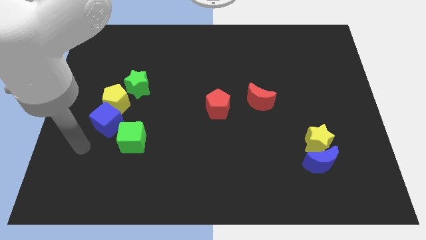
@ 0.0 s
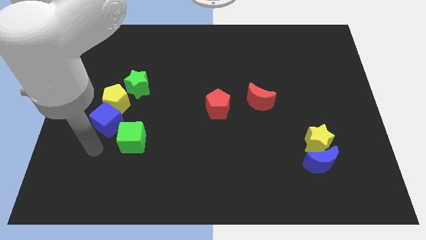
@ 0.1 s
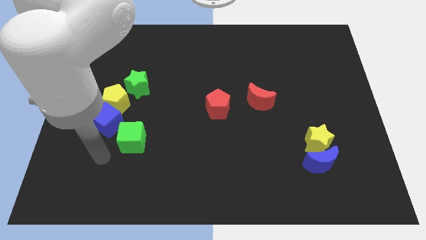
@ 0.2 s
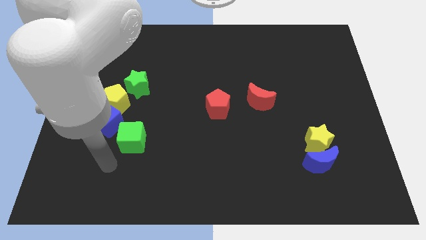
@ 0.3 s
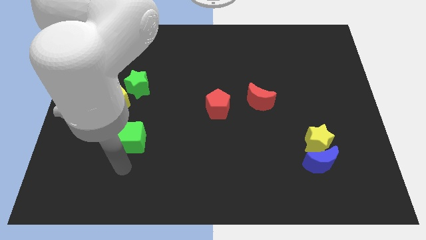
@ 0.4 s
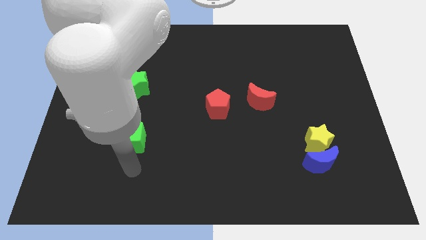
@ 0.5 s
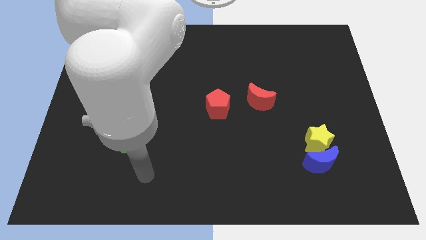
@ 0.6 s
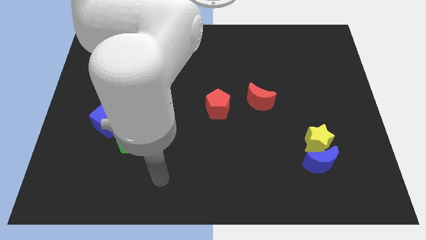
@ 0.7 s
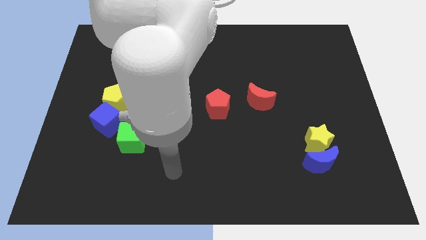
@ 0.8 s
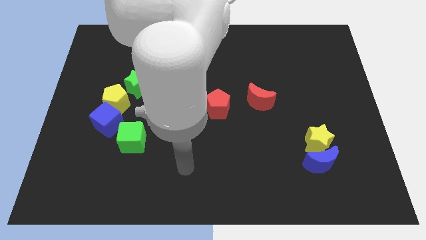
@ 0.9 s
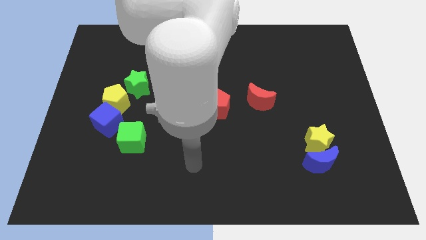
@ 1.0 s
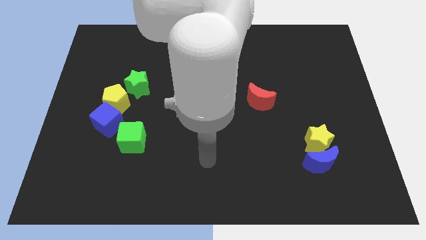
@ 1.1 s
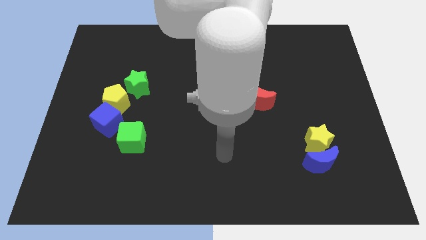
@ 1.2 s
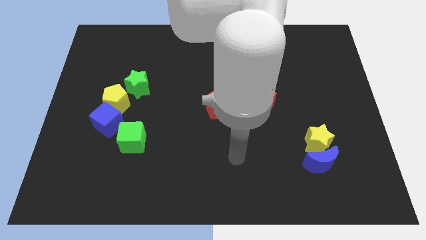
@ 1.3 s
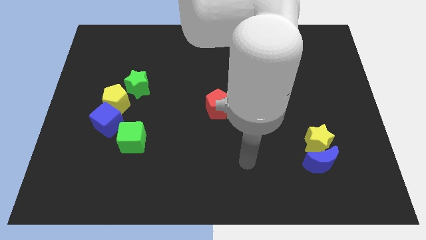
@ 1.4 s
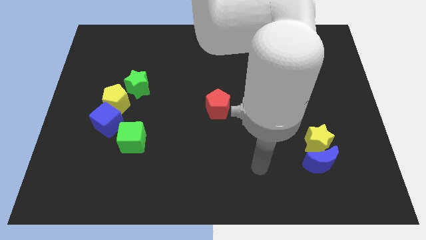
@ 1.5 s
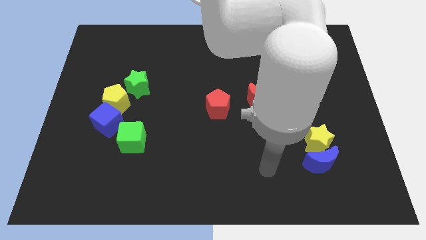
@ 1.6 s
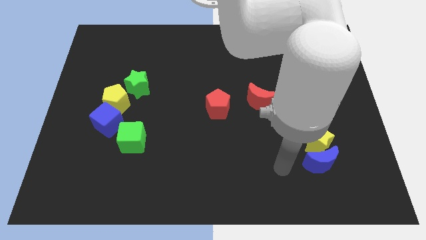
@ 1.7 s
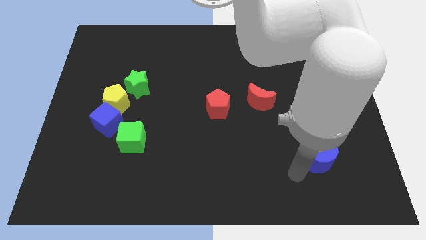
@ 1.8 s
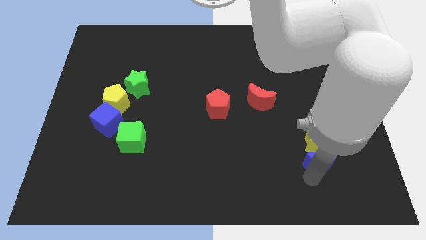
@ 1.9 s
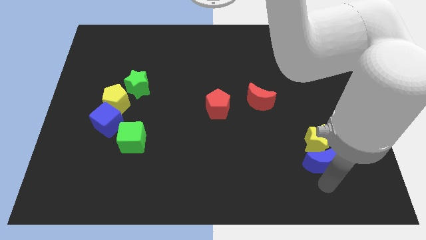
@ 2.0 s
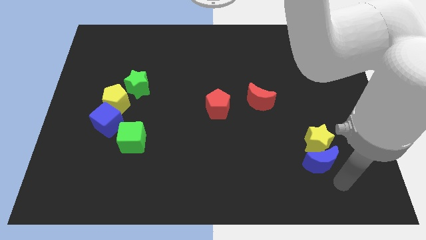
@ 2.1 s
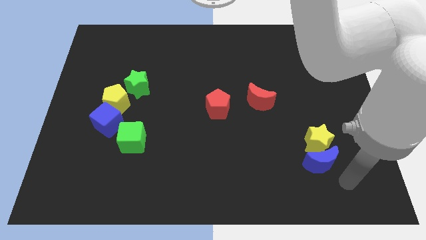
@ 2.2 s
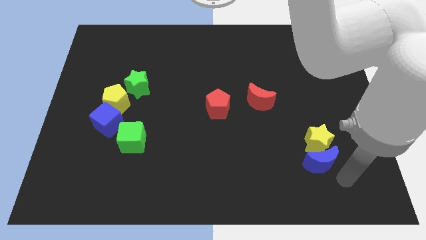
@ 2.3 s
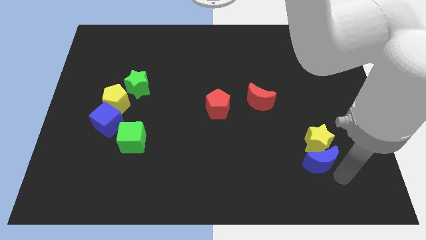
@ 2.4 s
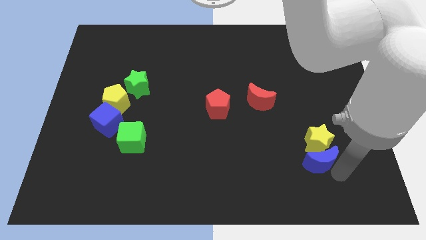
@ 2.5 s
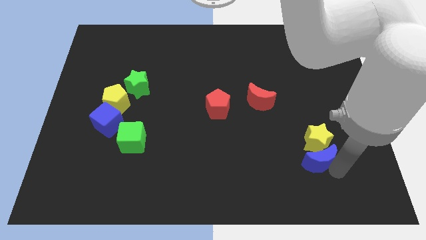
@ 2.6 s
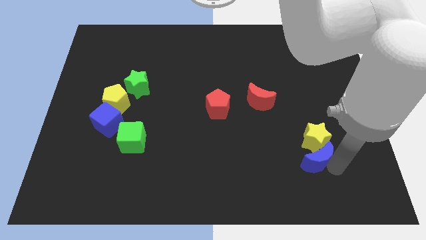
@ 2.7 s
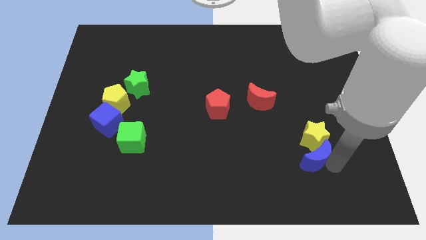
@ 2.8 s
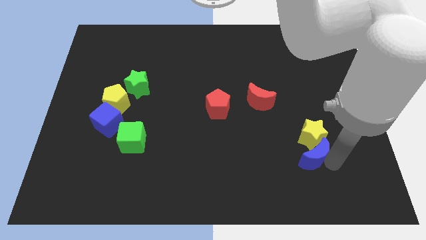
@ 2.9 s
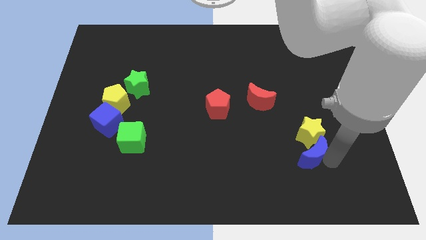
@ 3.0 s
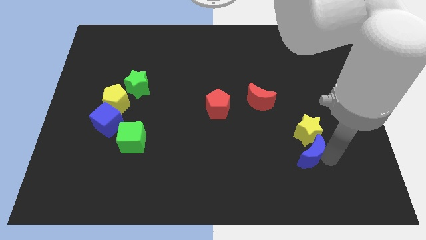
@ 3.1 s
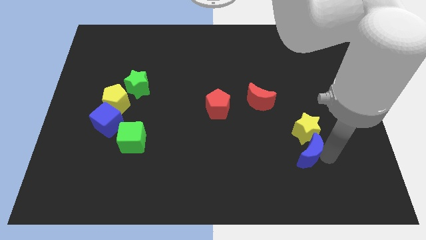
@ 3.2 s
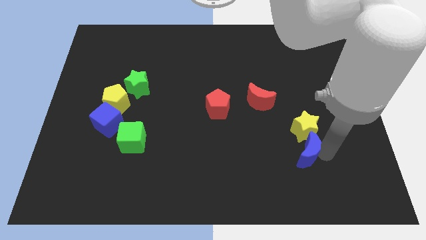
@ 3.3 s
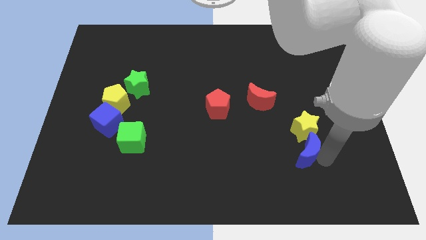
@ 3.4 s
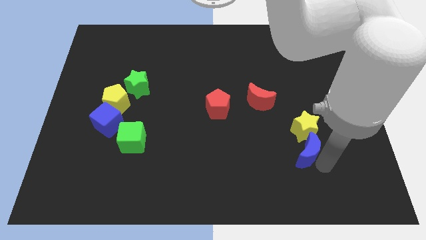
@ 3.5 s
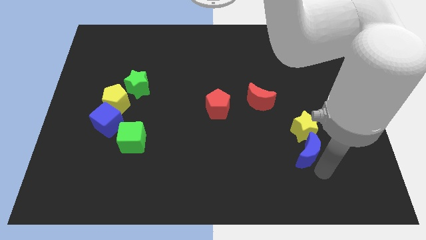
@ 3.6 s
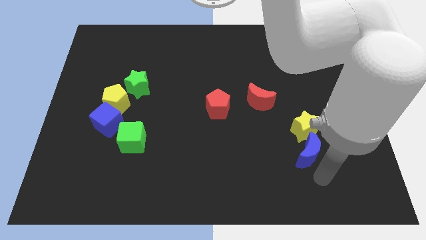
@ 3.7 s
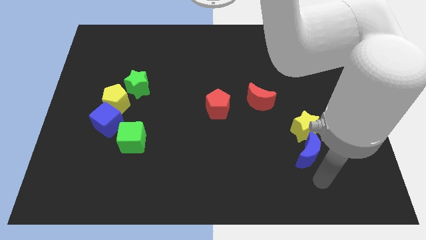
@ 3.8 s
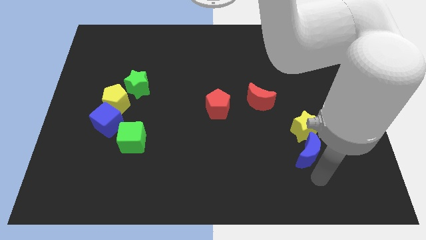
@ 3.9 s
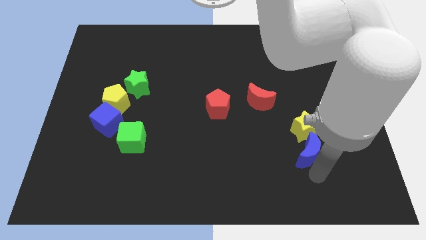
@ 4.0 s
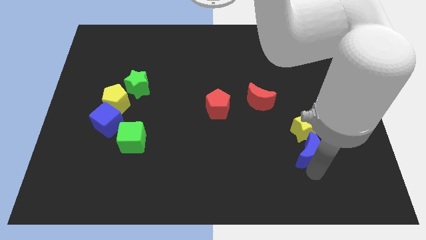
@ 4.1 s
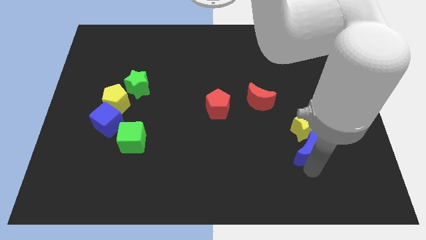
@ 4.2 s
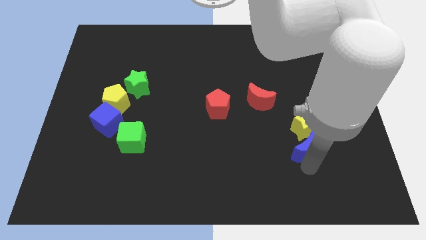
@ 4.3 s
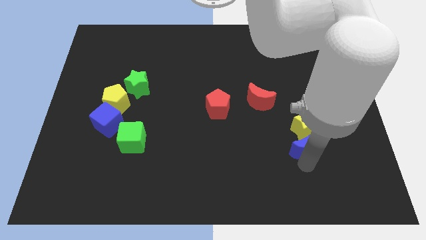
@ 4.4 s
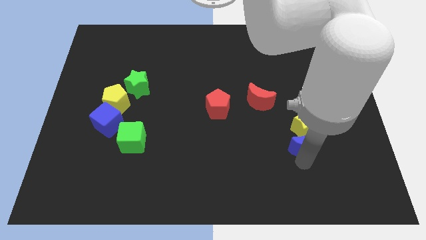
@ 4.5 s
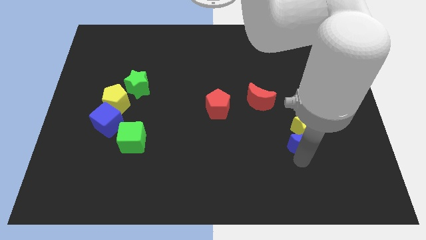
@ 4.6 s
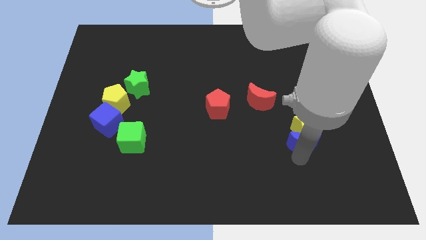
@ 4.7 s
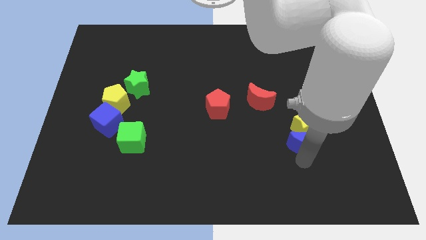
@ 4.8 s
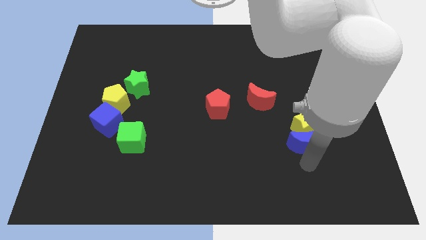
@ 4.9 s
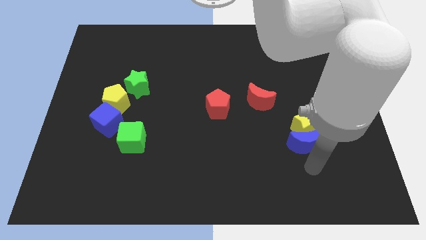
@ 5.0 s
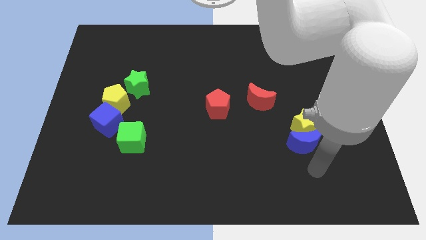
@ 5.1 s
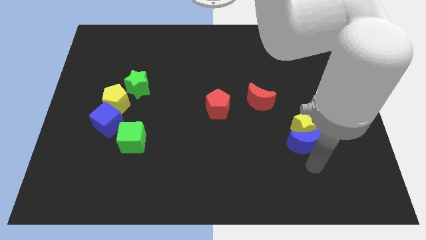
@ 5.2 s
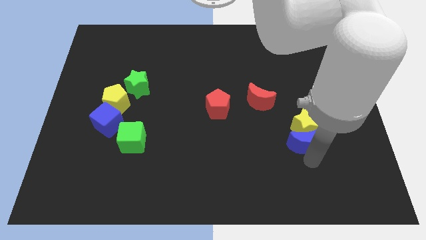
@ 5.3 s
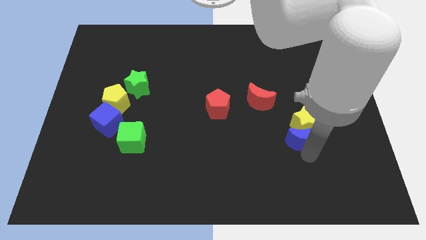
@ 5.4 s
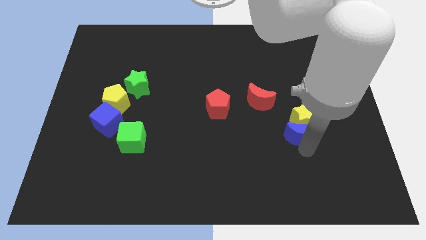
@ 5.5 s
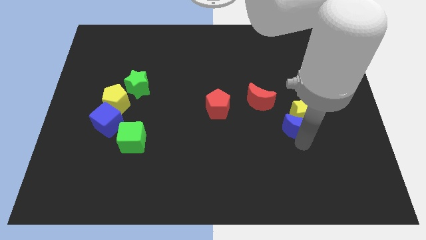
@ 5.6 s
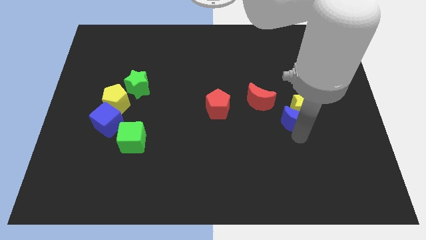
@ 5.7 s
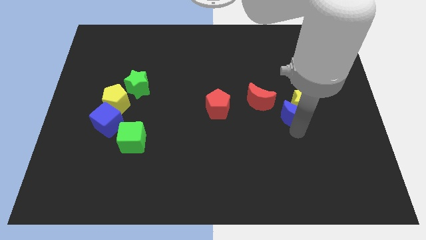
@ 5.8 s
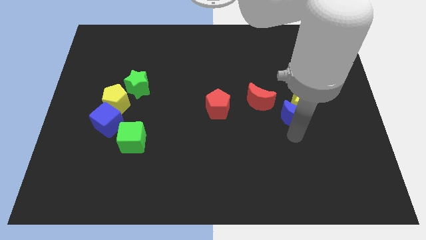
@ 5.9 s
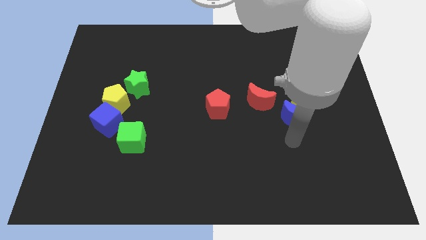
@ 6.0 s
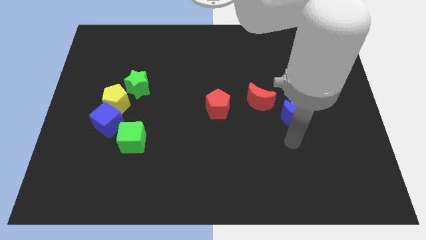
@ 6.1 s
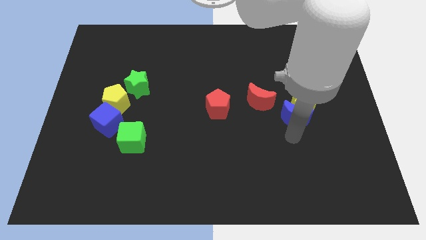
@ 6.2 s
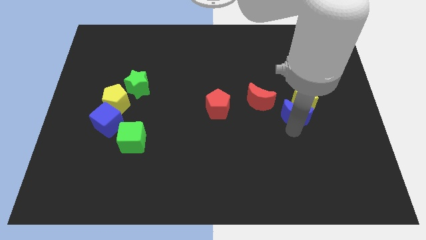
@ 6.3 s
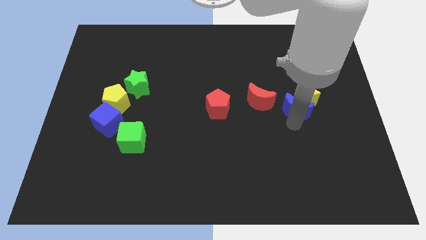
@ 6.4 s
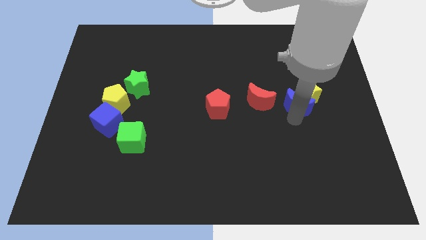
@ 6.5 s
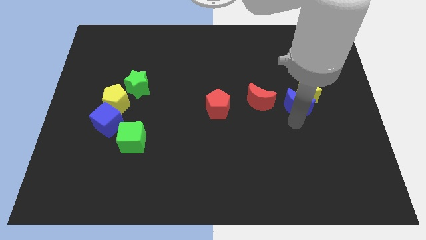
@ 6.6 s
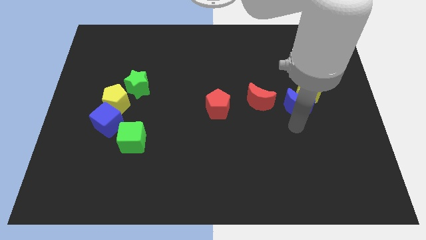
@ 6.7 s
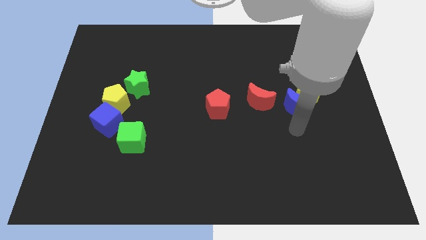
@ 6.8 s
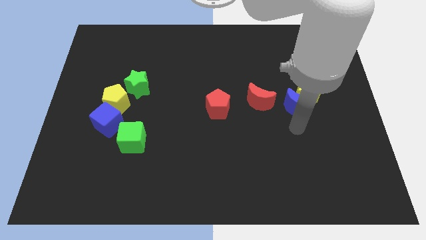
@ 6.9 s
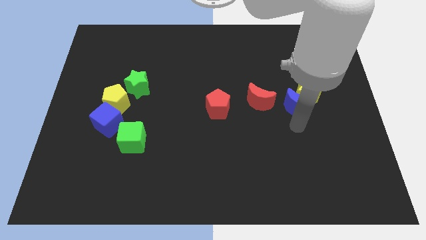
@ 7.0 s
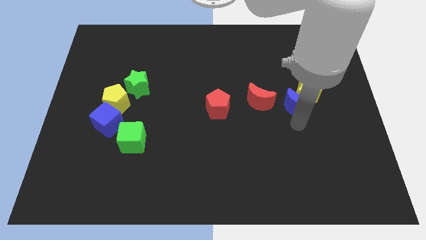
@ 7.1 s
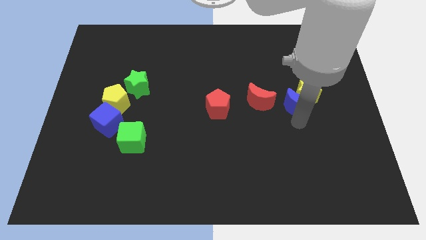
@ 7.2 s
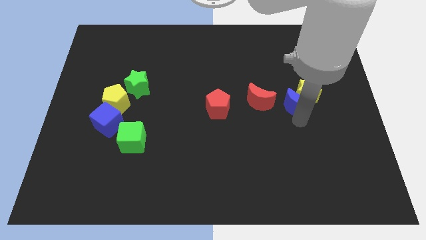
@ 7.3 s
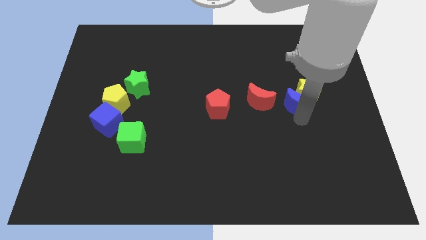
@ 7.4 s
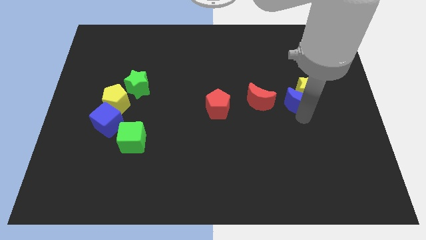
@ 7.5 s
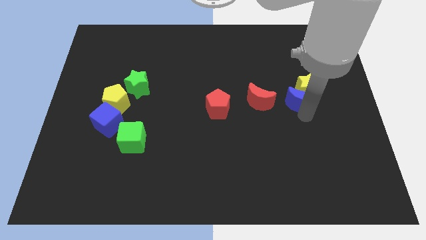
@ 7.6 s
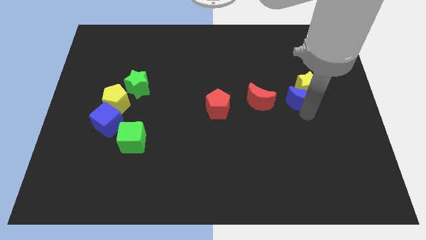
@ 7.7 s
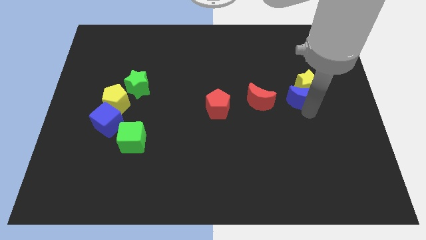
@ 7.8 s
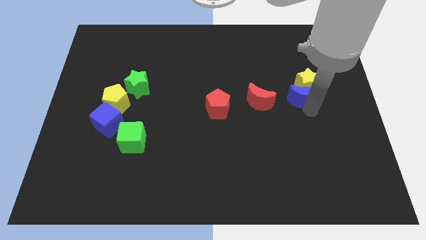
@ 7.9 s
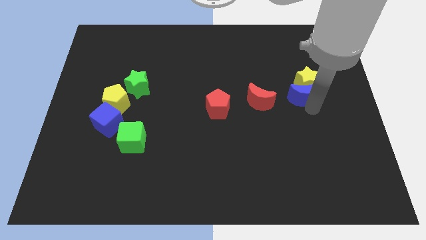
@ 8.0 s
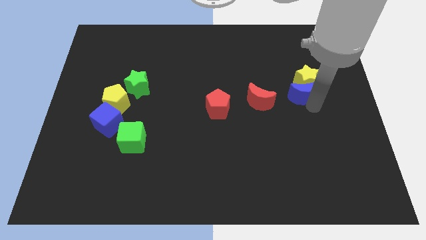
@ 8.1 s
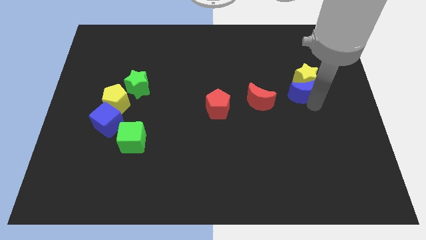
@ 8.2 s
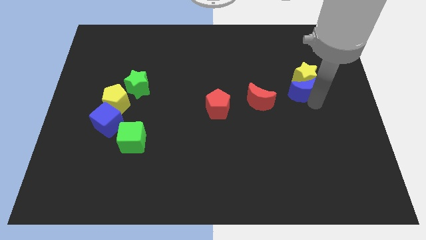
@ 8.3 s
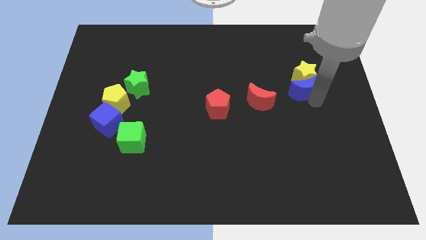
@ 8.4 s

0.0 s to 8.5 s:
slide the blue moon upwards
